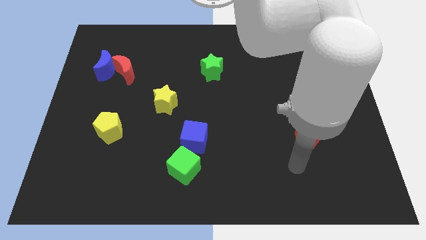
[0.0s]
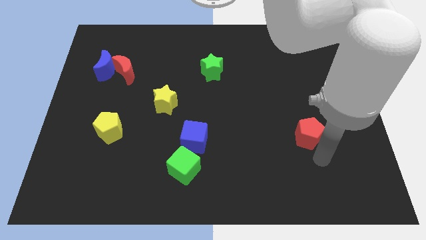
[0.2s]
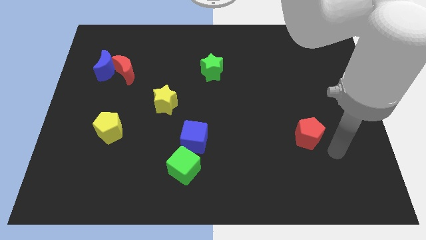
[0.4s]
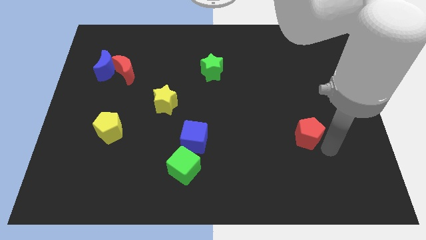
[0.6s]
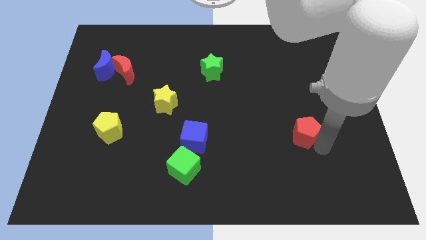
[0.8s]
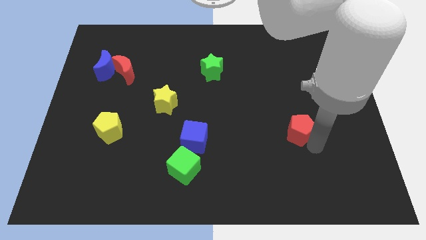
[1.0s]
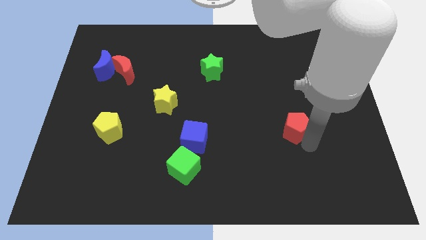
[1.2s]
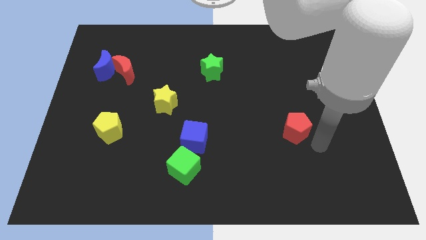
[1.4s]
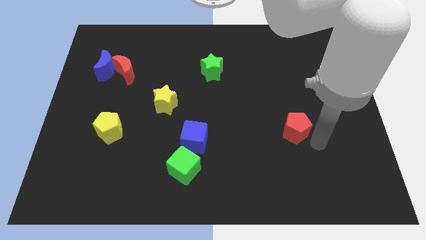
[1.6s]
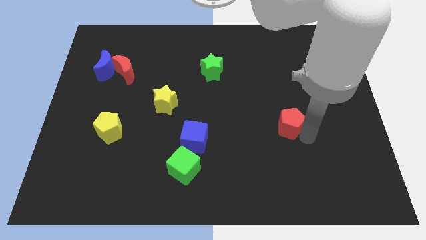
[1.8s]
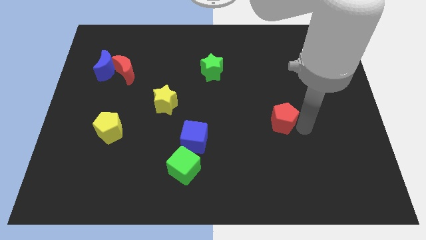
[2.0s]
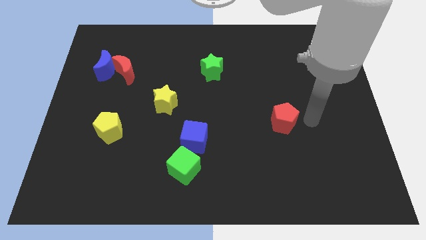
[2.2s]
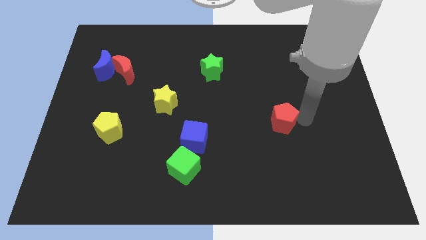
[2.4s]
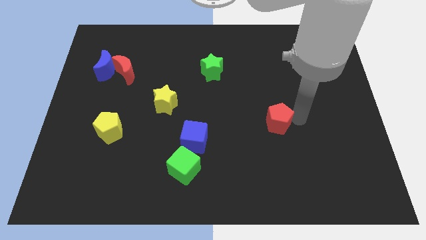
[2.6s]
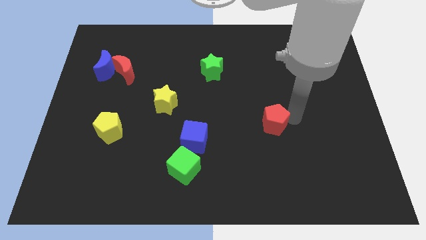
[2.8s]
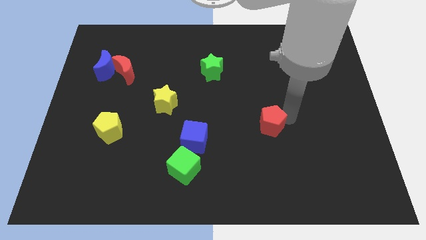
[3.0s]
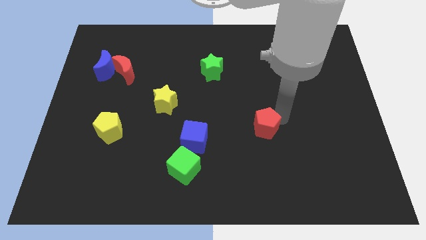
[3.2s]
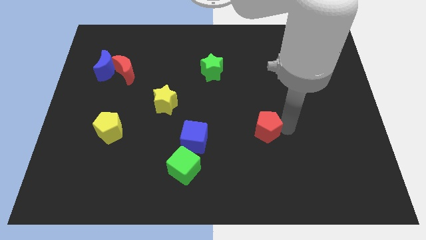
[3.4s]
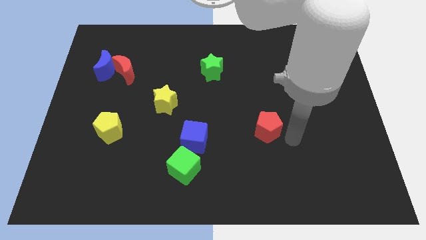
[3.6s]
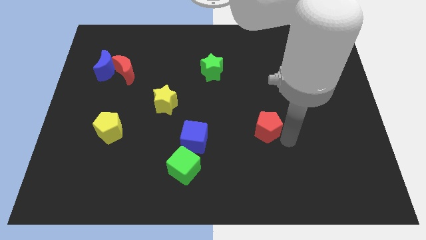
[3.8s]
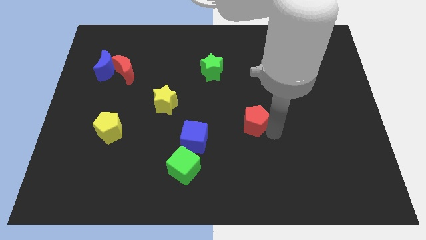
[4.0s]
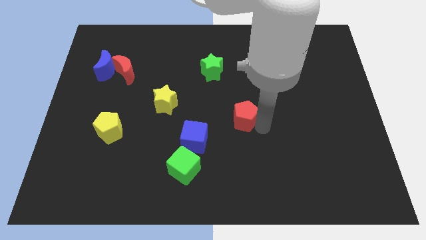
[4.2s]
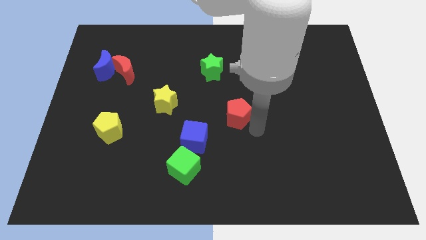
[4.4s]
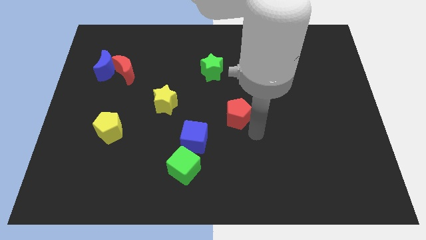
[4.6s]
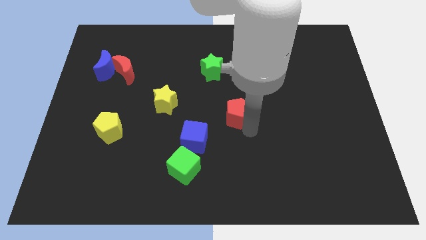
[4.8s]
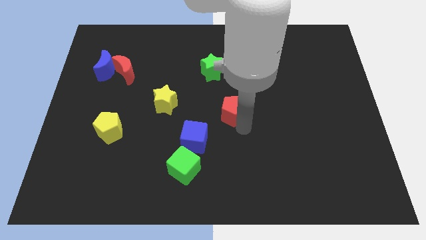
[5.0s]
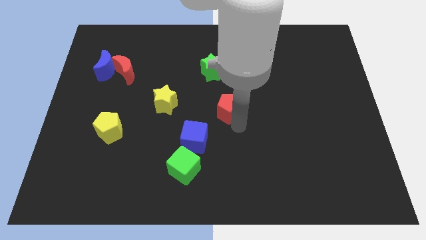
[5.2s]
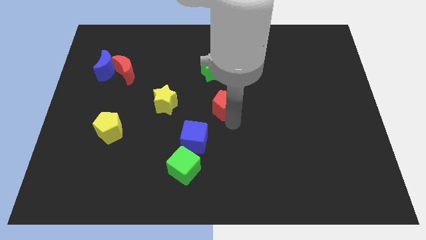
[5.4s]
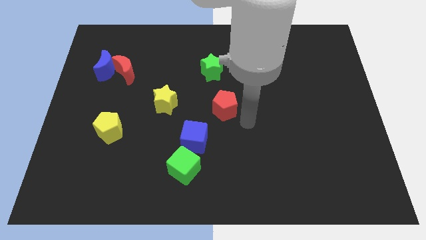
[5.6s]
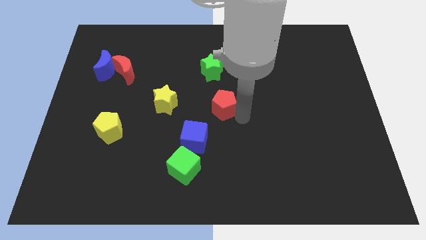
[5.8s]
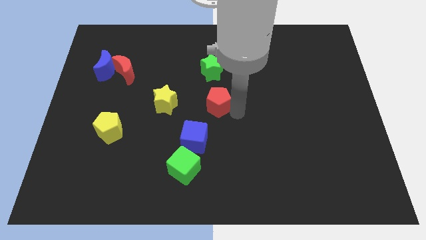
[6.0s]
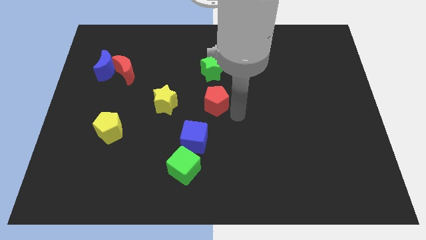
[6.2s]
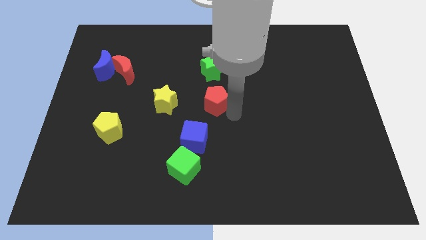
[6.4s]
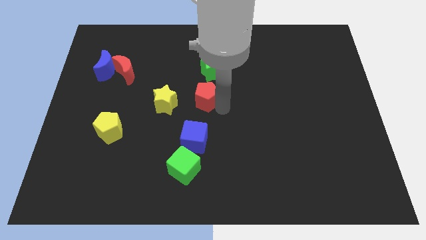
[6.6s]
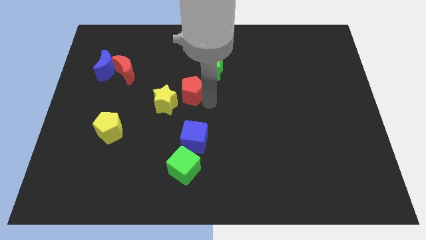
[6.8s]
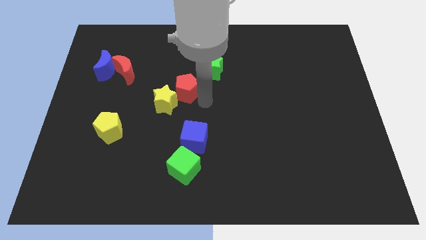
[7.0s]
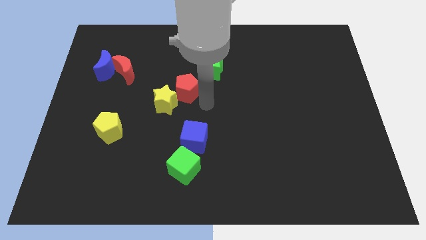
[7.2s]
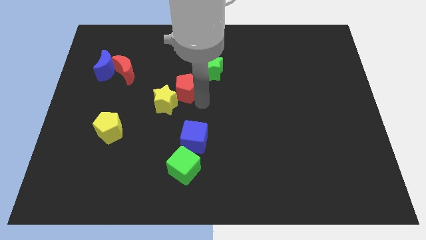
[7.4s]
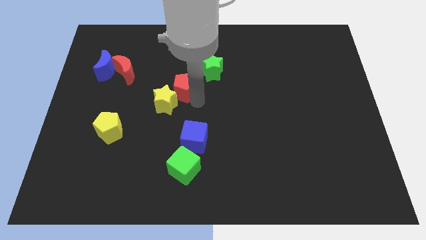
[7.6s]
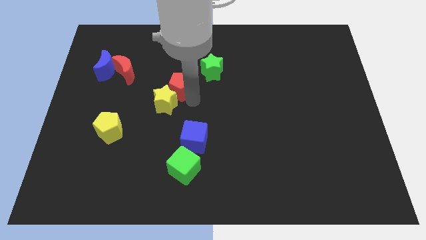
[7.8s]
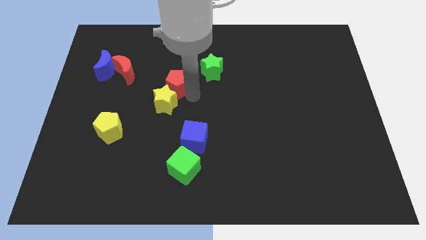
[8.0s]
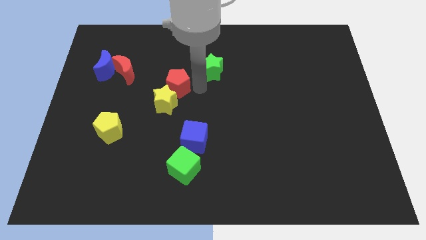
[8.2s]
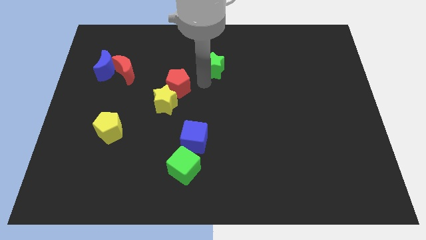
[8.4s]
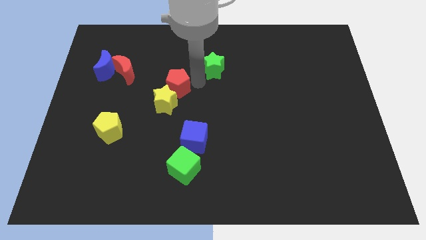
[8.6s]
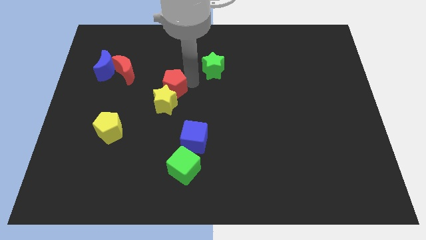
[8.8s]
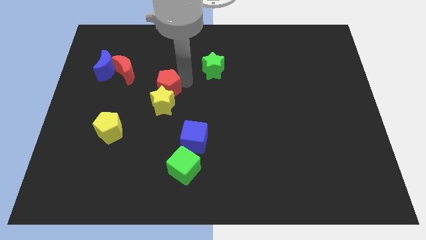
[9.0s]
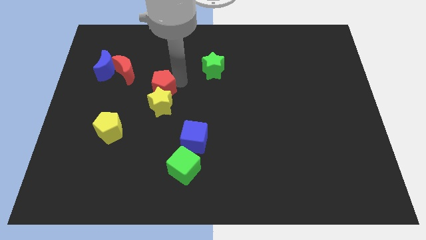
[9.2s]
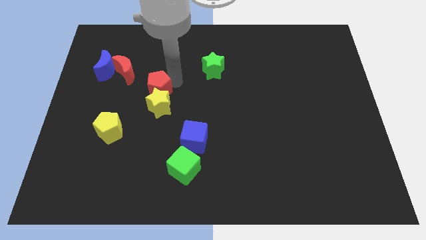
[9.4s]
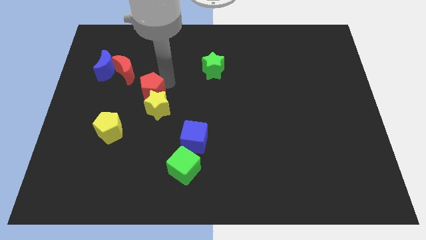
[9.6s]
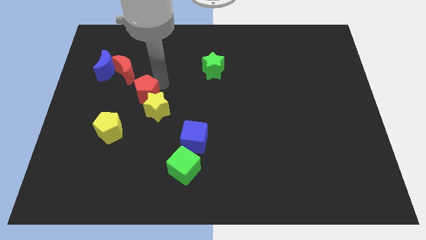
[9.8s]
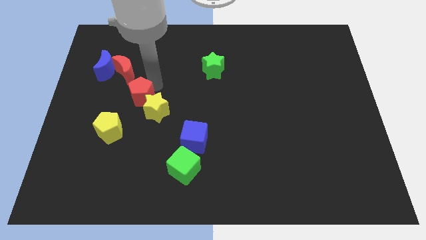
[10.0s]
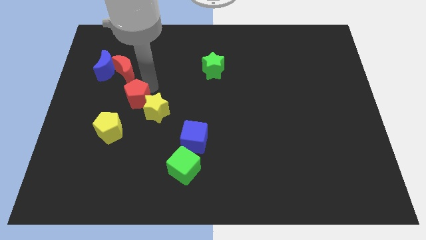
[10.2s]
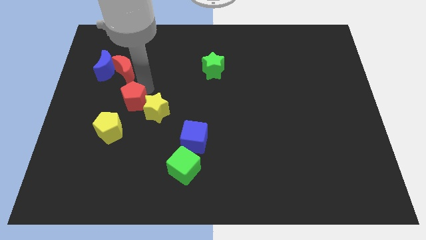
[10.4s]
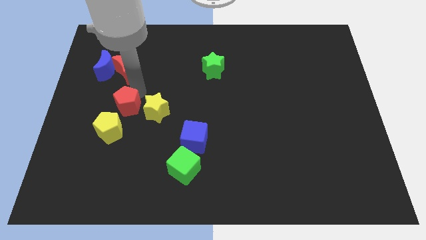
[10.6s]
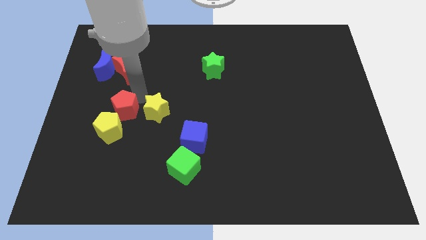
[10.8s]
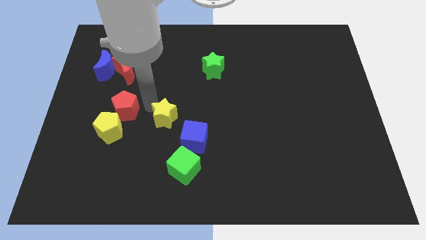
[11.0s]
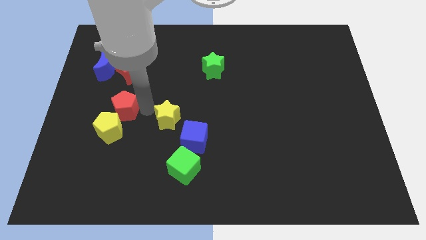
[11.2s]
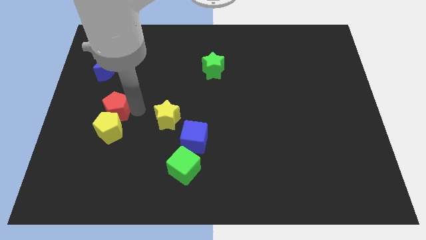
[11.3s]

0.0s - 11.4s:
push the red pentagon to the top left side of the yellow pentagon

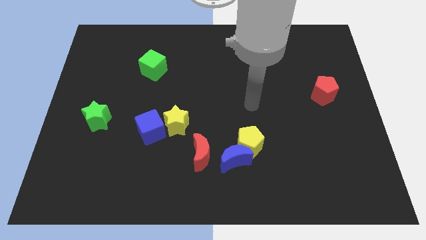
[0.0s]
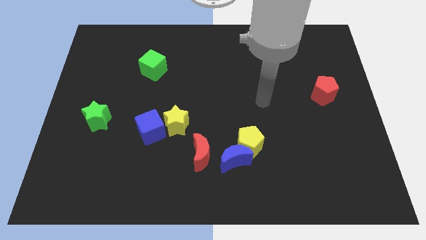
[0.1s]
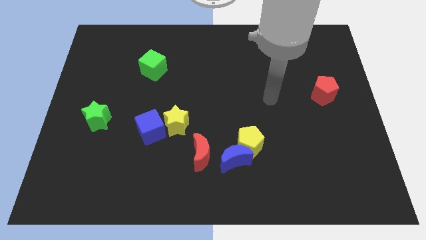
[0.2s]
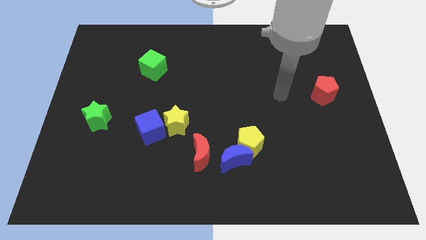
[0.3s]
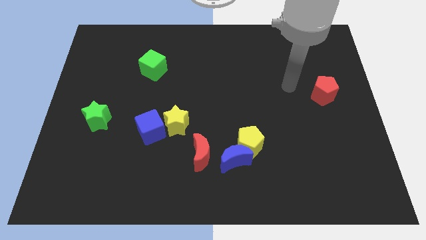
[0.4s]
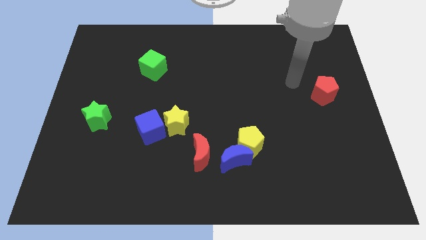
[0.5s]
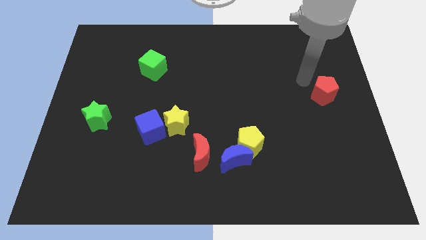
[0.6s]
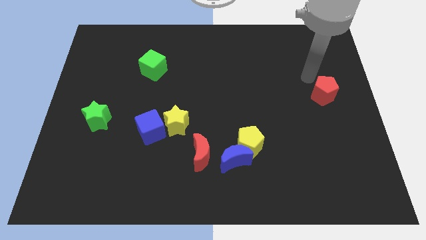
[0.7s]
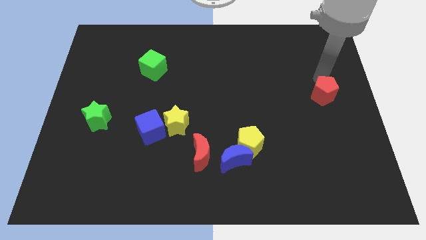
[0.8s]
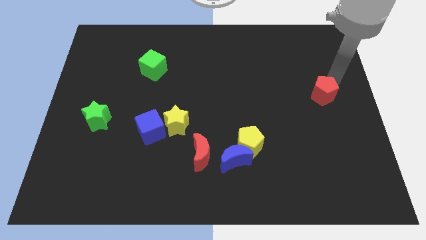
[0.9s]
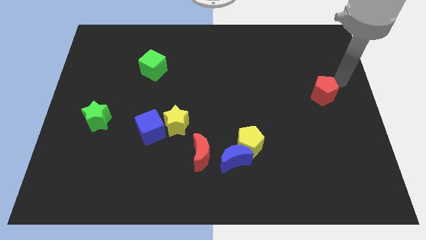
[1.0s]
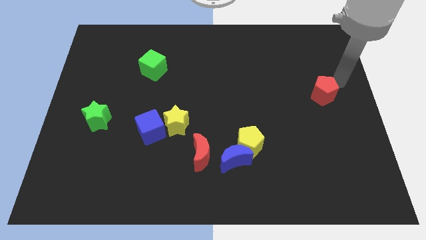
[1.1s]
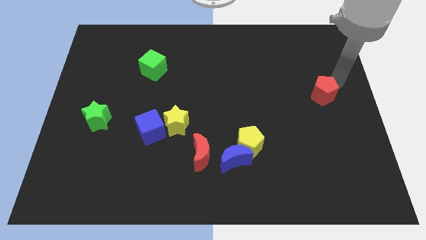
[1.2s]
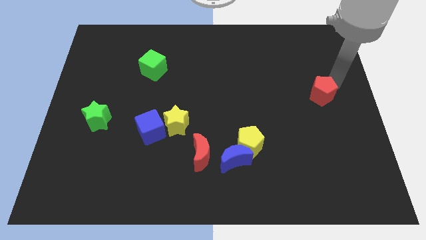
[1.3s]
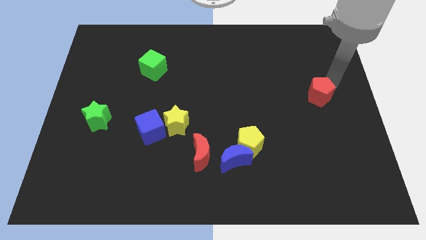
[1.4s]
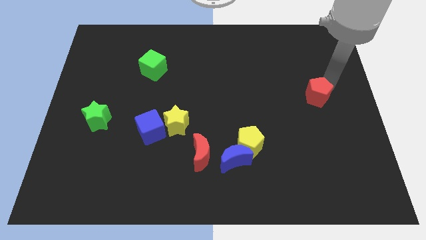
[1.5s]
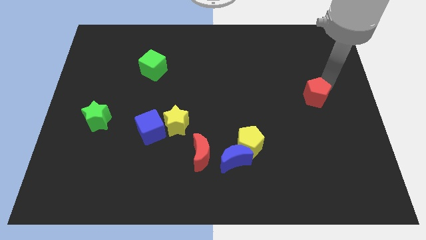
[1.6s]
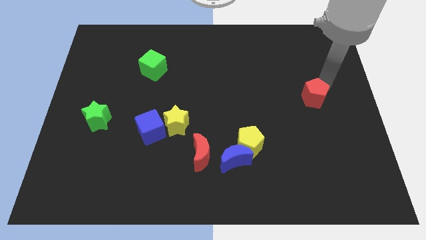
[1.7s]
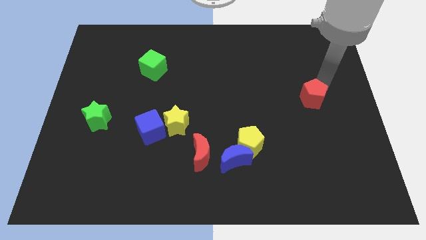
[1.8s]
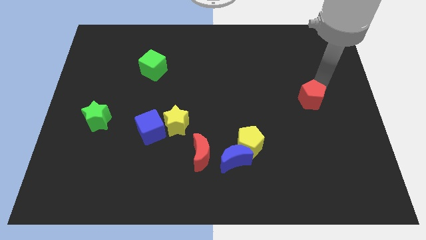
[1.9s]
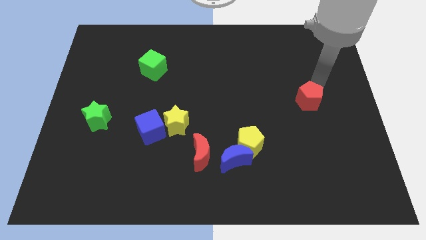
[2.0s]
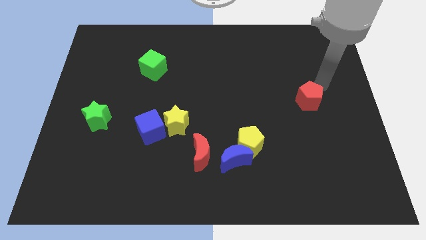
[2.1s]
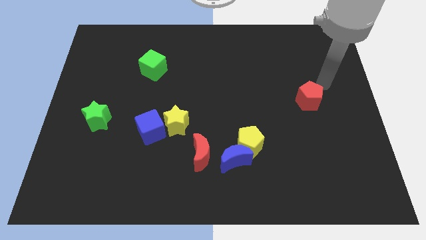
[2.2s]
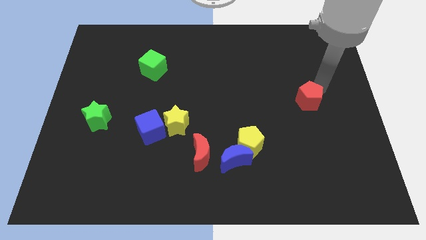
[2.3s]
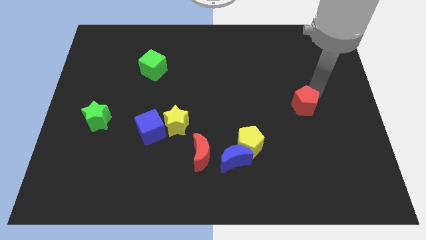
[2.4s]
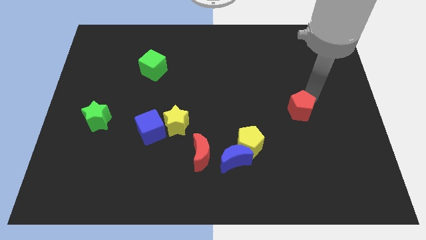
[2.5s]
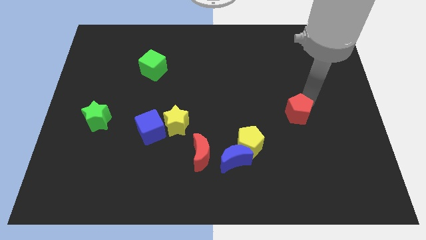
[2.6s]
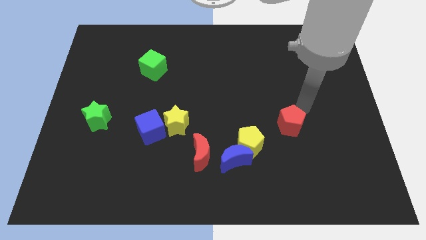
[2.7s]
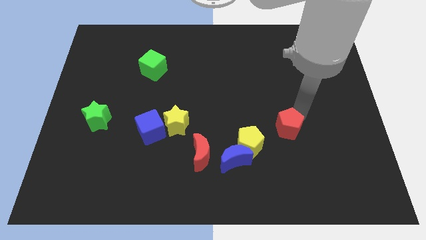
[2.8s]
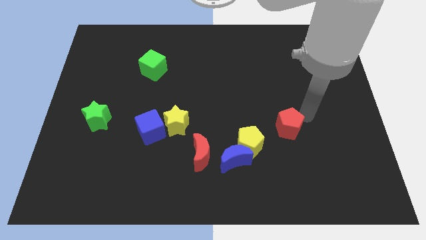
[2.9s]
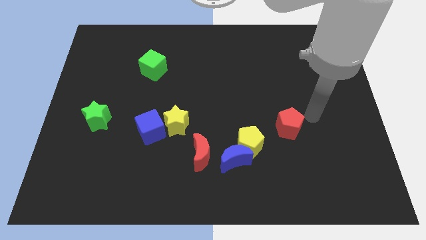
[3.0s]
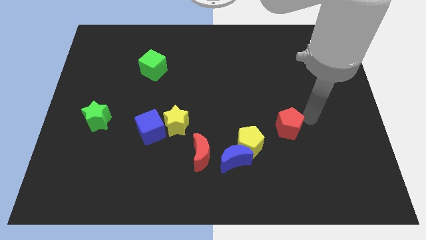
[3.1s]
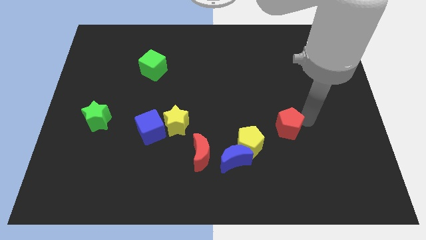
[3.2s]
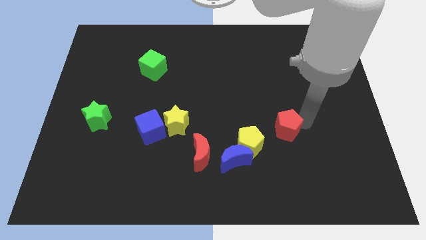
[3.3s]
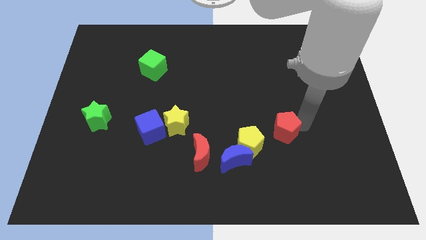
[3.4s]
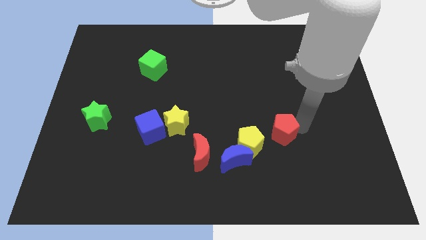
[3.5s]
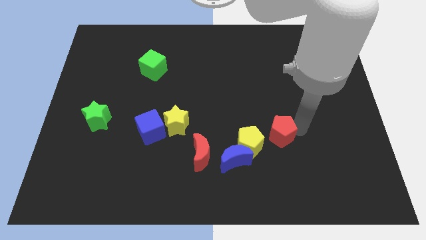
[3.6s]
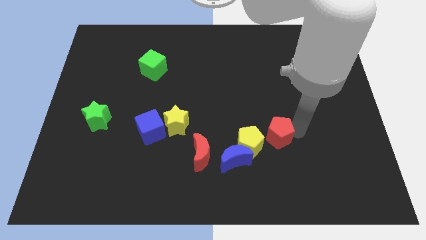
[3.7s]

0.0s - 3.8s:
move the red pentagon to the top right of the blue moon
